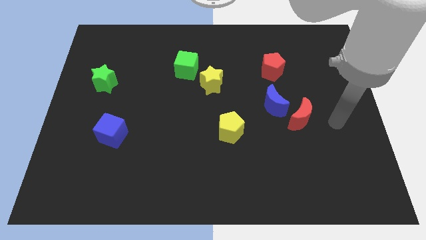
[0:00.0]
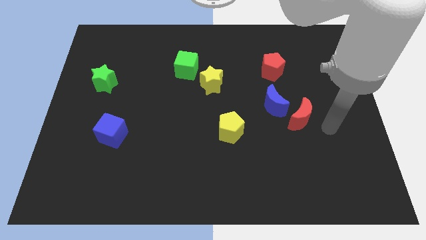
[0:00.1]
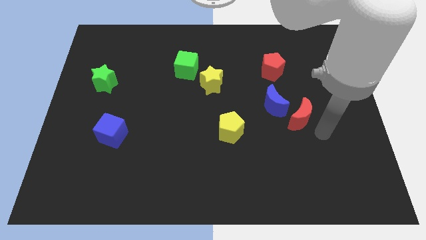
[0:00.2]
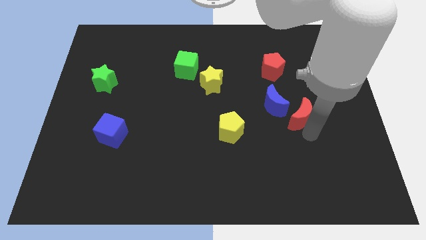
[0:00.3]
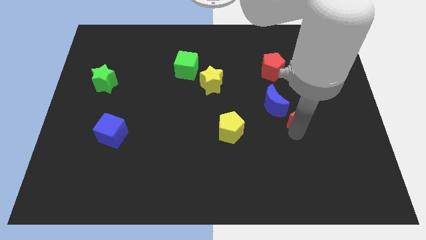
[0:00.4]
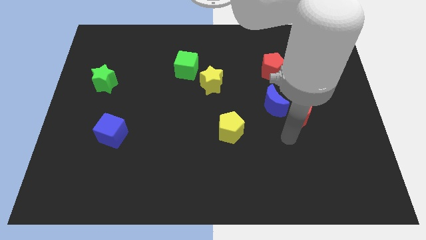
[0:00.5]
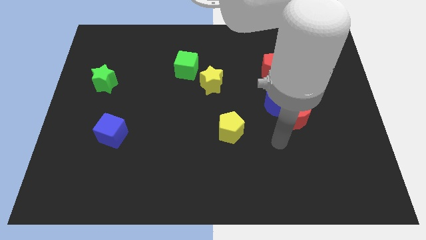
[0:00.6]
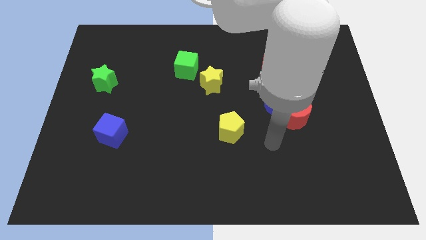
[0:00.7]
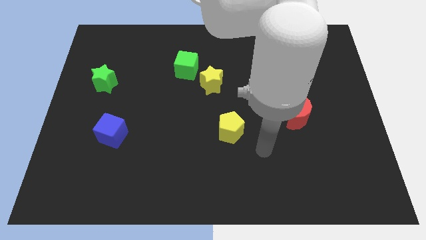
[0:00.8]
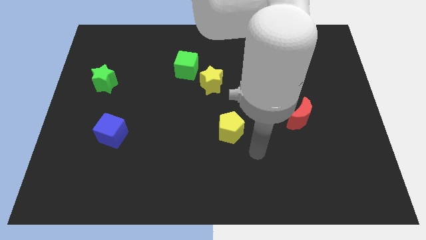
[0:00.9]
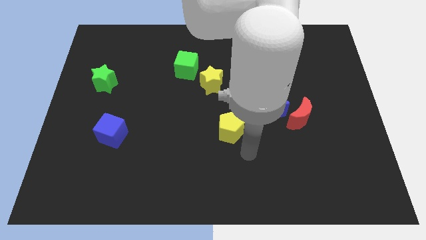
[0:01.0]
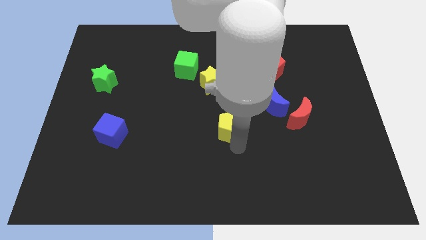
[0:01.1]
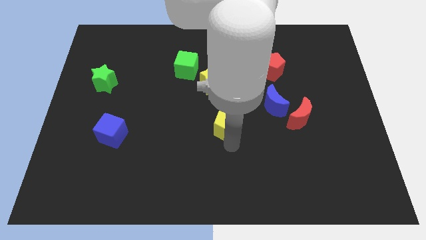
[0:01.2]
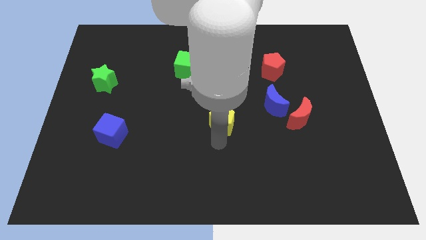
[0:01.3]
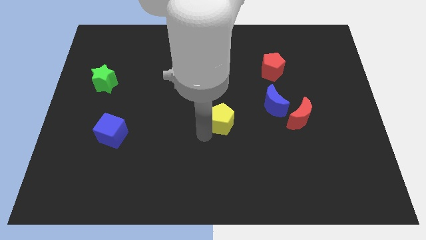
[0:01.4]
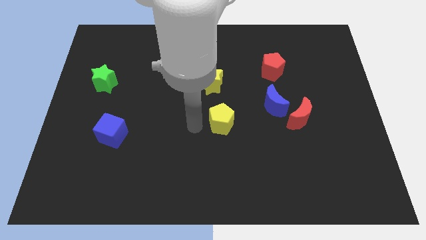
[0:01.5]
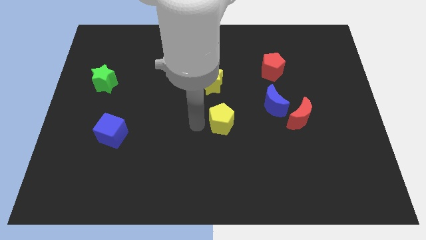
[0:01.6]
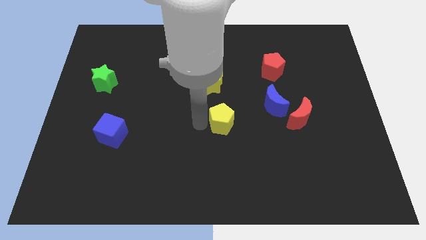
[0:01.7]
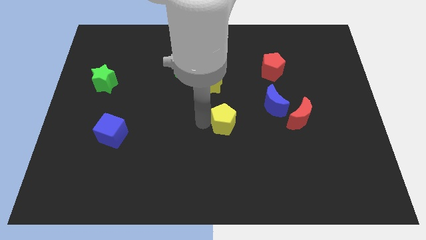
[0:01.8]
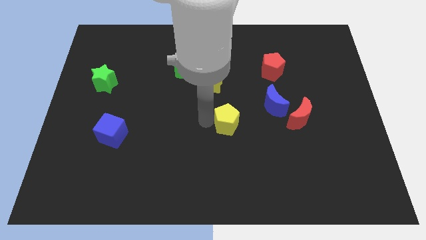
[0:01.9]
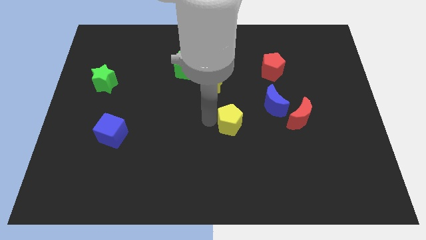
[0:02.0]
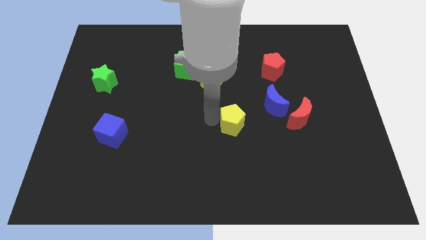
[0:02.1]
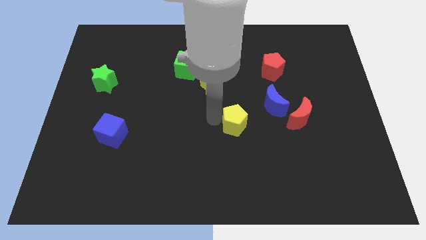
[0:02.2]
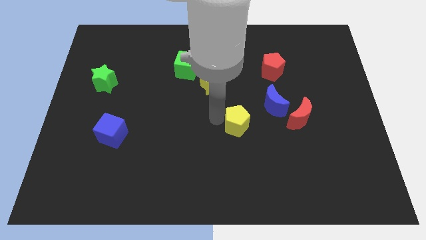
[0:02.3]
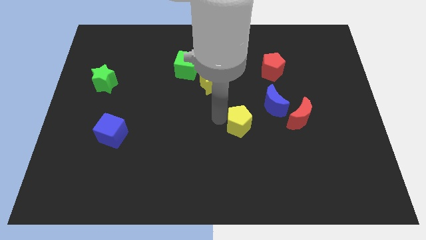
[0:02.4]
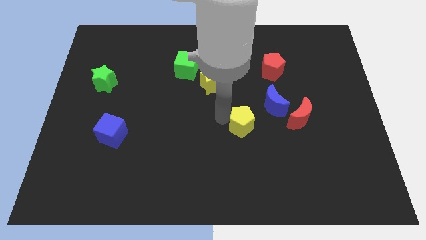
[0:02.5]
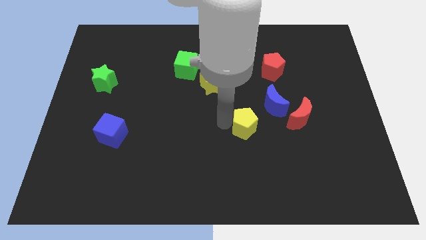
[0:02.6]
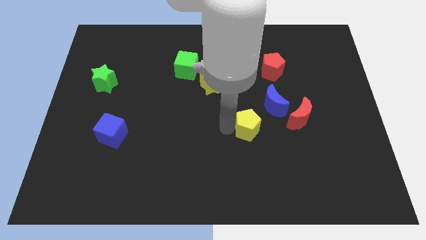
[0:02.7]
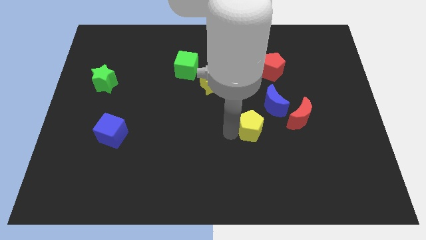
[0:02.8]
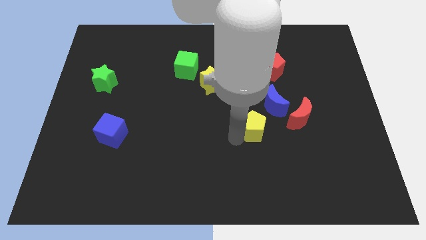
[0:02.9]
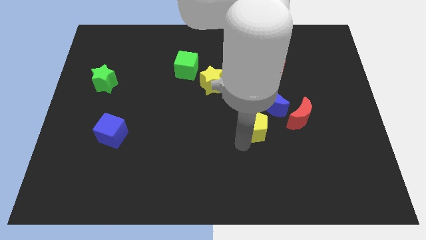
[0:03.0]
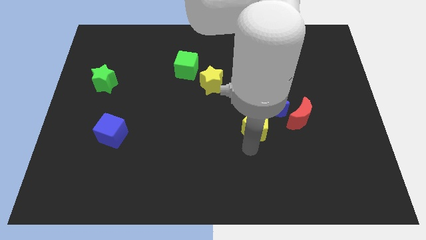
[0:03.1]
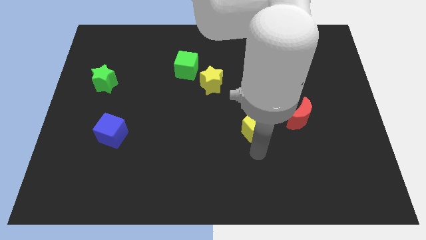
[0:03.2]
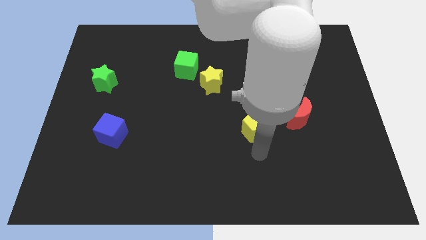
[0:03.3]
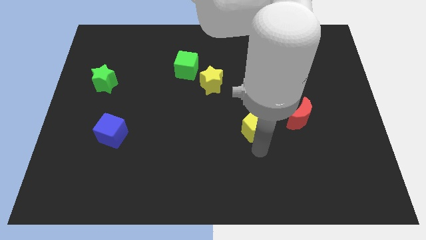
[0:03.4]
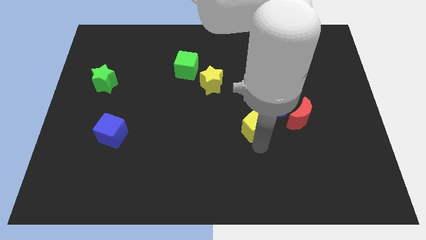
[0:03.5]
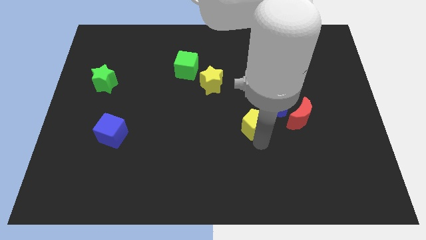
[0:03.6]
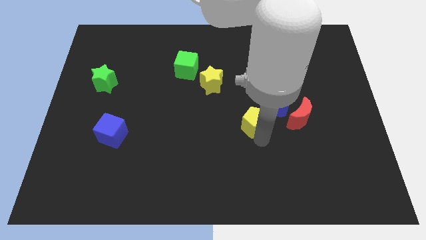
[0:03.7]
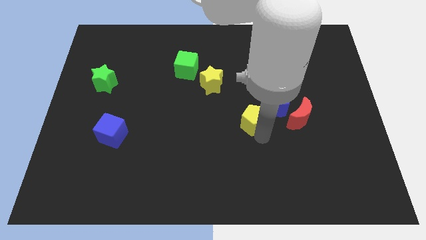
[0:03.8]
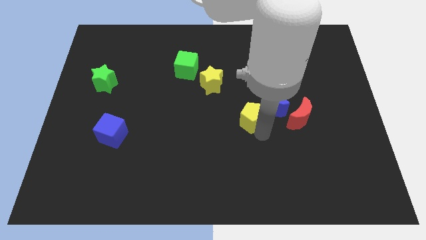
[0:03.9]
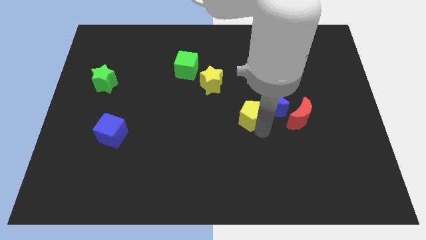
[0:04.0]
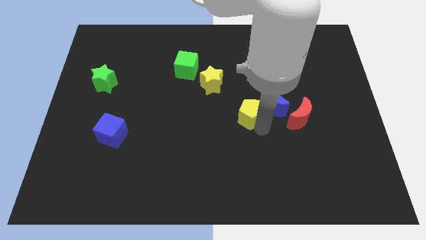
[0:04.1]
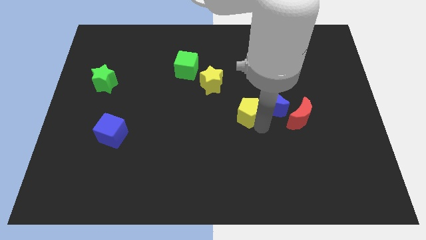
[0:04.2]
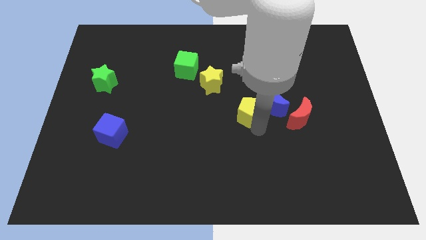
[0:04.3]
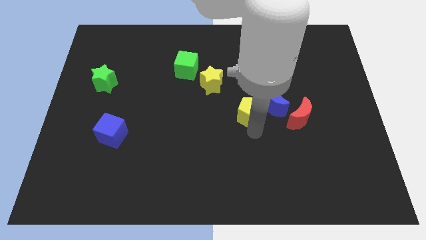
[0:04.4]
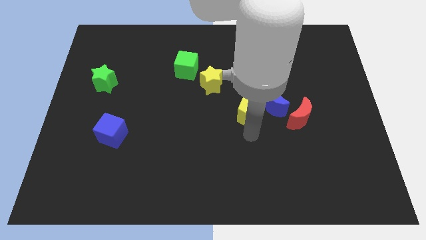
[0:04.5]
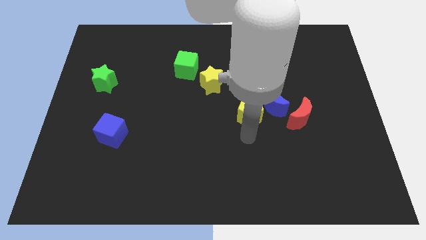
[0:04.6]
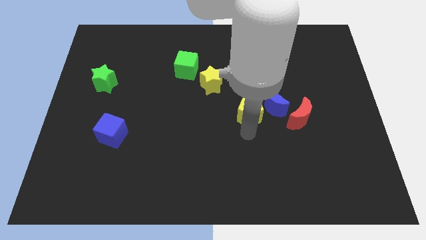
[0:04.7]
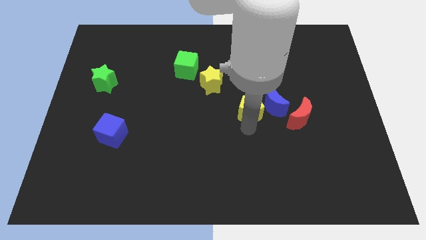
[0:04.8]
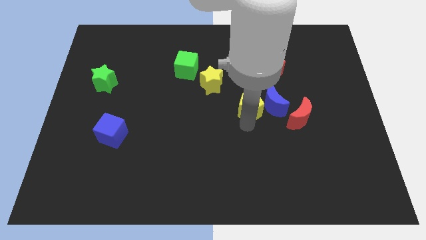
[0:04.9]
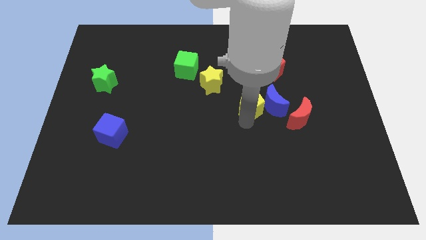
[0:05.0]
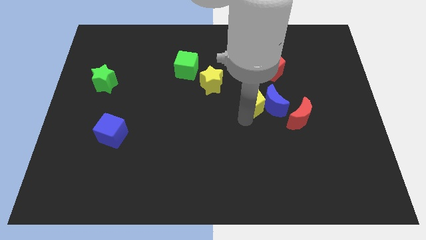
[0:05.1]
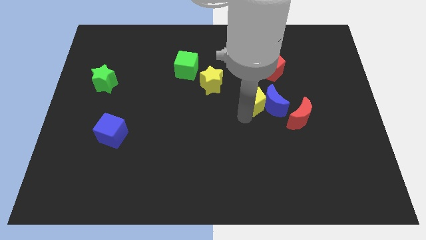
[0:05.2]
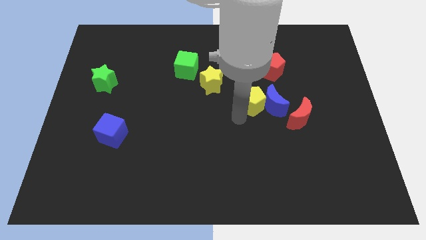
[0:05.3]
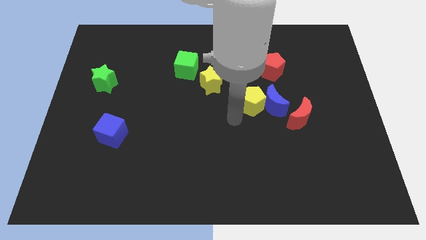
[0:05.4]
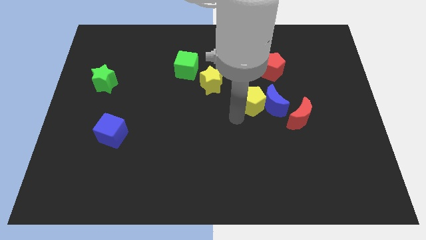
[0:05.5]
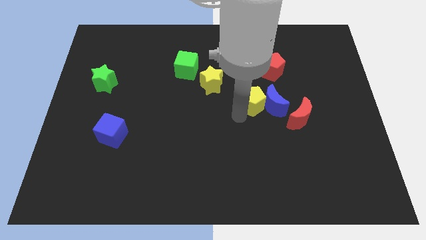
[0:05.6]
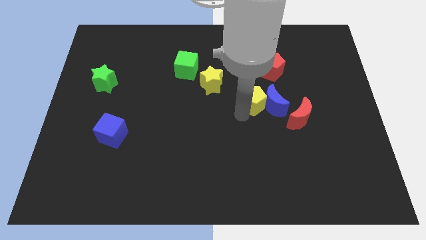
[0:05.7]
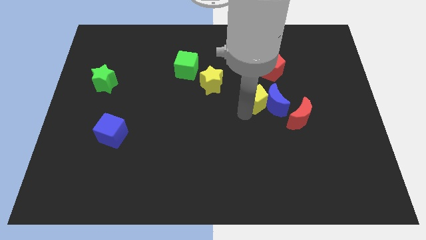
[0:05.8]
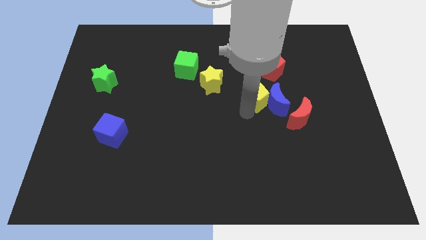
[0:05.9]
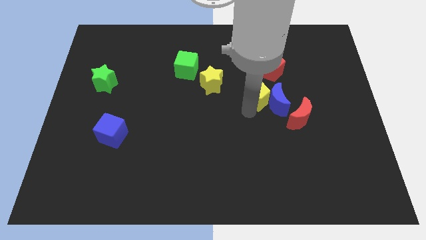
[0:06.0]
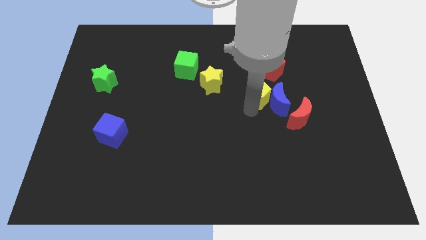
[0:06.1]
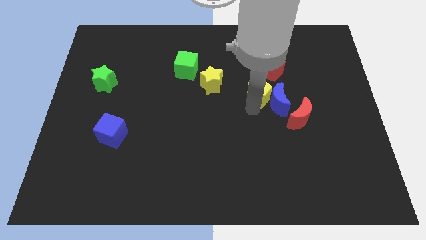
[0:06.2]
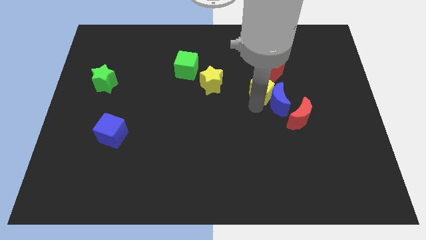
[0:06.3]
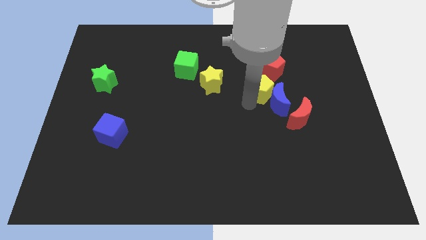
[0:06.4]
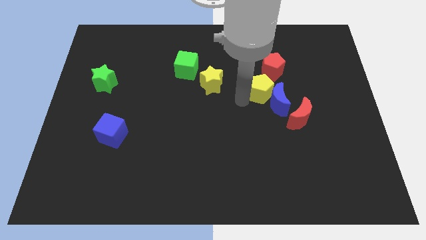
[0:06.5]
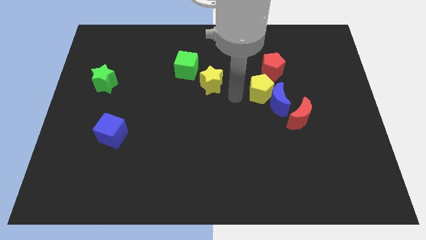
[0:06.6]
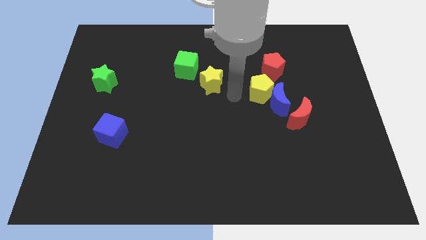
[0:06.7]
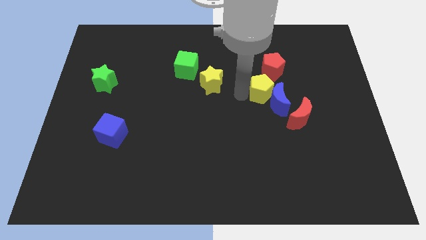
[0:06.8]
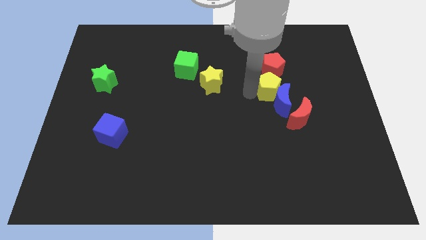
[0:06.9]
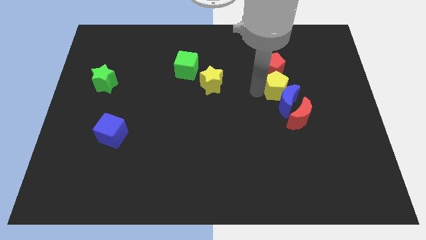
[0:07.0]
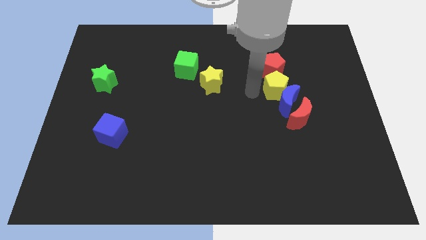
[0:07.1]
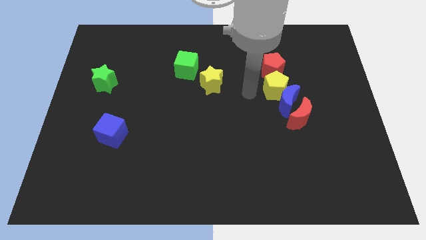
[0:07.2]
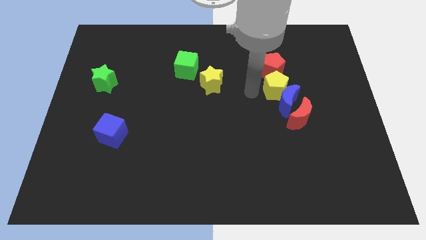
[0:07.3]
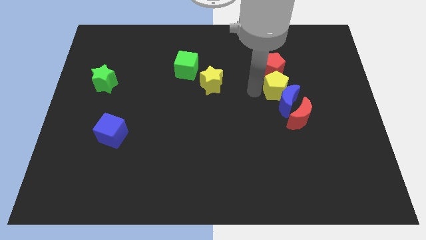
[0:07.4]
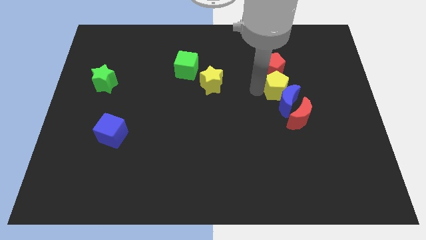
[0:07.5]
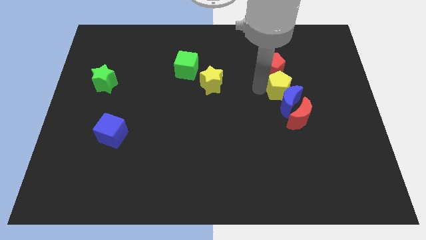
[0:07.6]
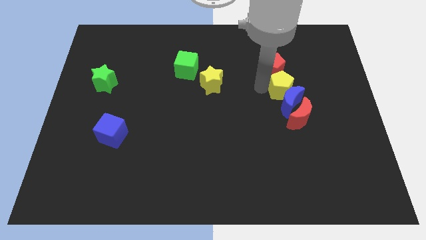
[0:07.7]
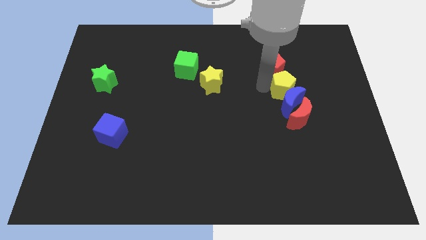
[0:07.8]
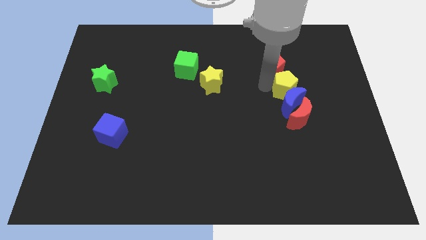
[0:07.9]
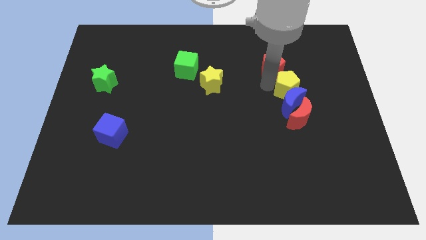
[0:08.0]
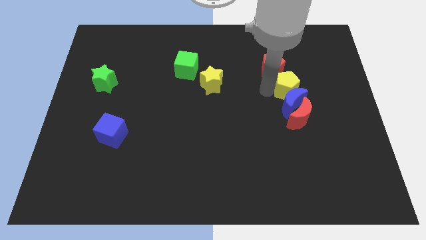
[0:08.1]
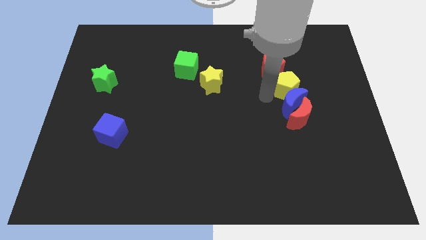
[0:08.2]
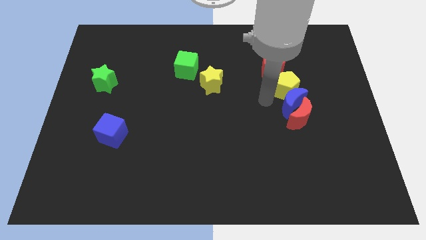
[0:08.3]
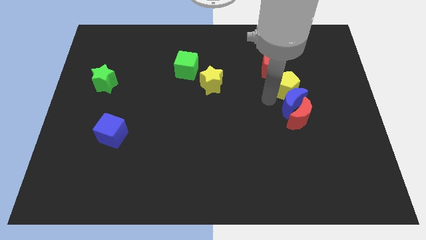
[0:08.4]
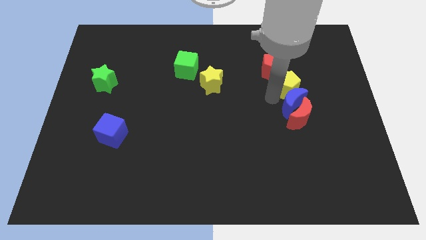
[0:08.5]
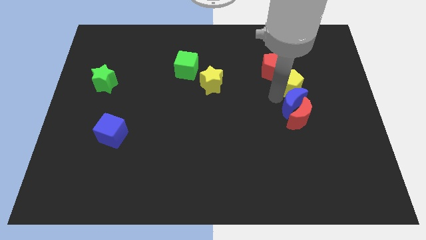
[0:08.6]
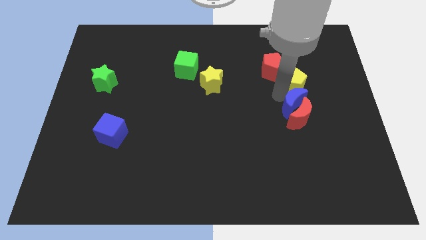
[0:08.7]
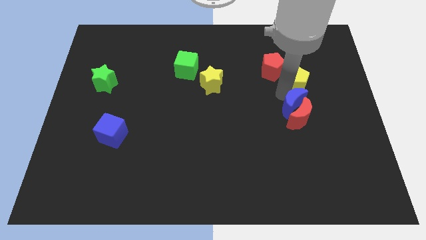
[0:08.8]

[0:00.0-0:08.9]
move the yellow pentagon to the right side of the red pentagon
